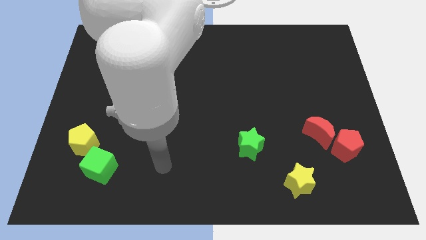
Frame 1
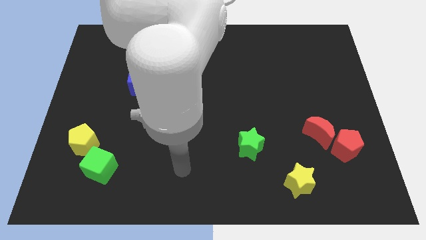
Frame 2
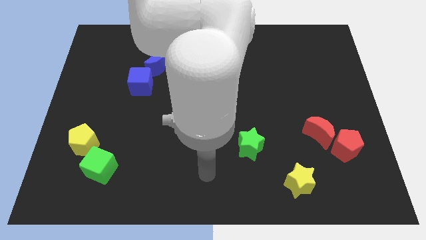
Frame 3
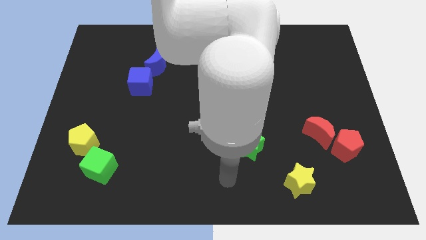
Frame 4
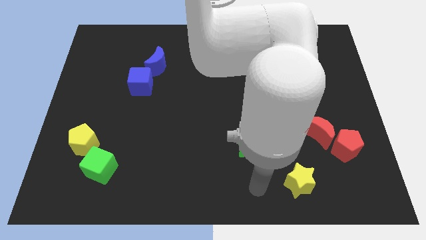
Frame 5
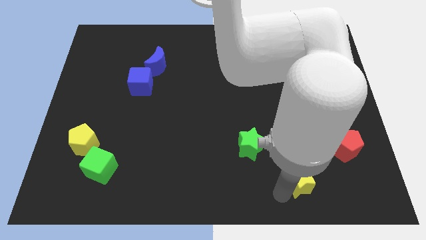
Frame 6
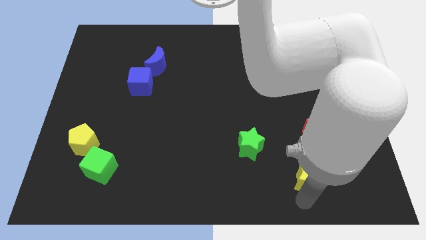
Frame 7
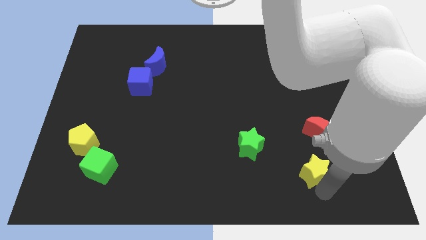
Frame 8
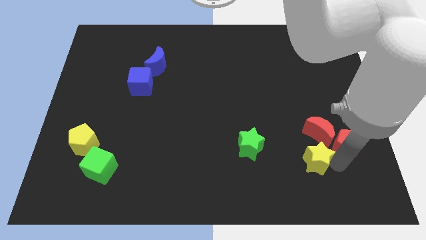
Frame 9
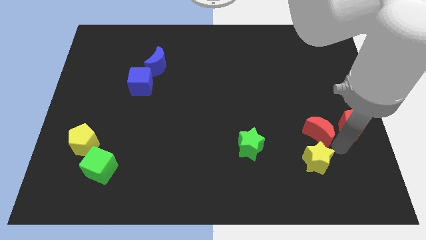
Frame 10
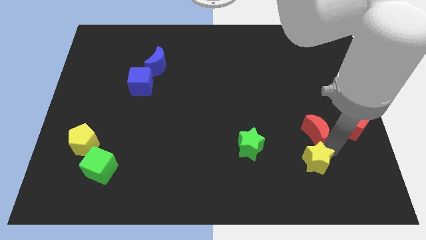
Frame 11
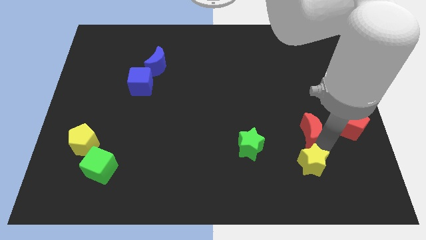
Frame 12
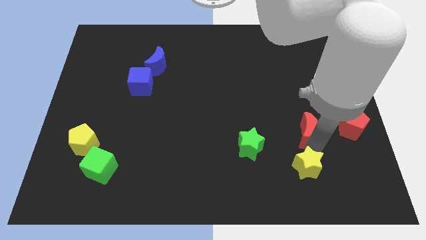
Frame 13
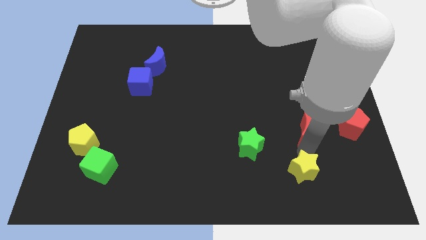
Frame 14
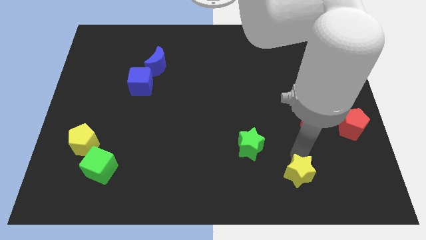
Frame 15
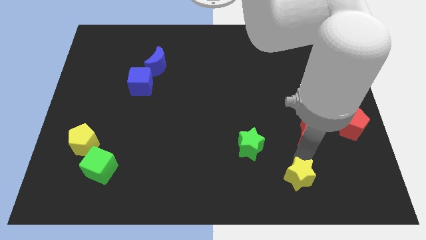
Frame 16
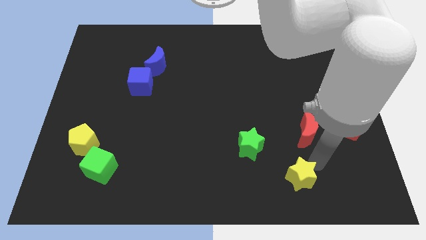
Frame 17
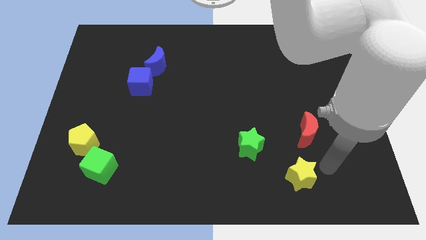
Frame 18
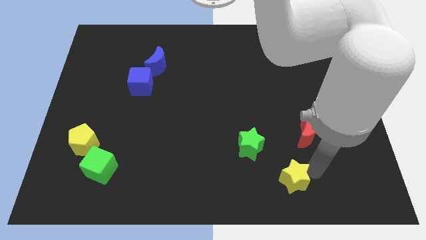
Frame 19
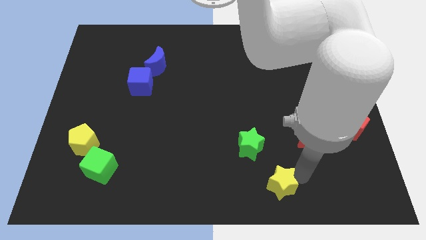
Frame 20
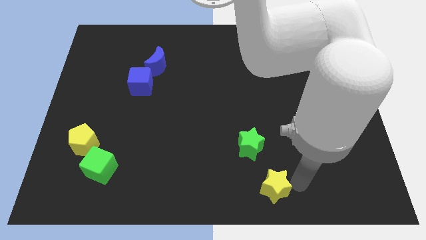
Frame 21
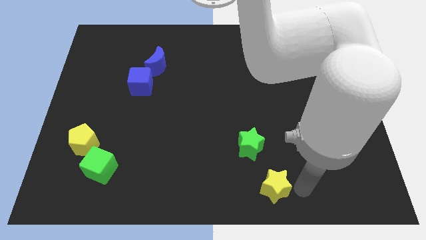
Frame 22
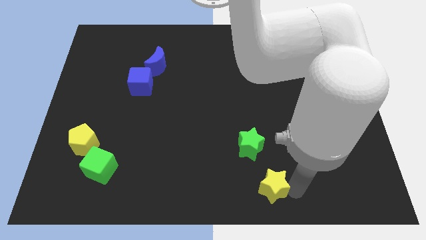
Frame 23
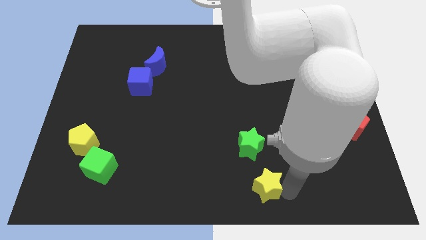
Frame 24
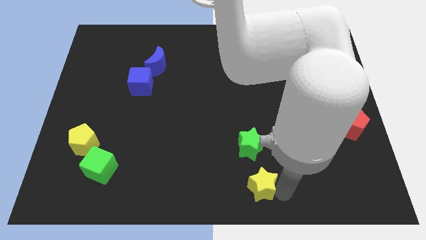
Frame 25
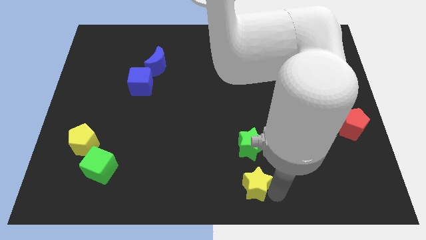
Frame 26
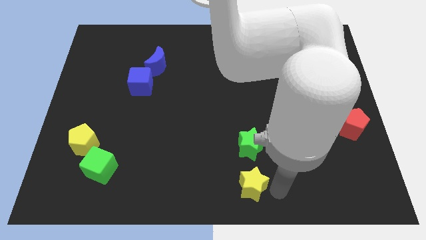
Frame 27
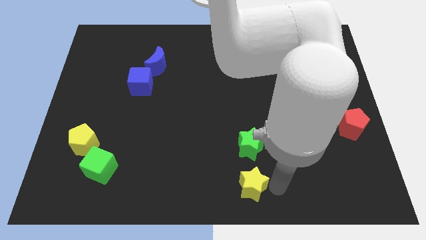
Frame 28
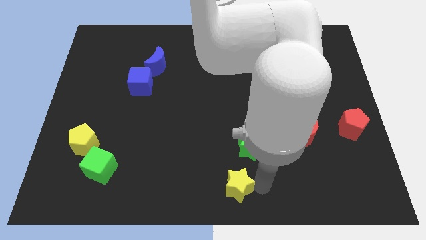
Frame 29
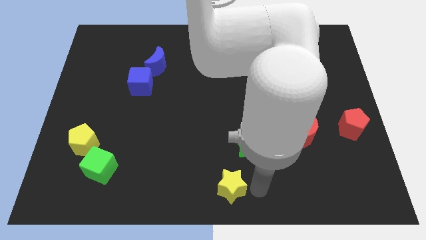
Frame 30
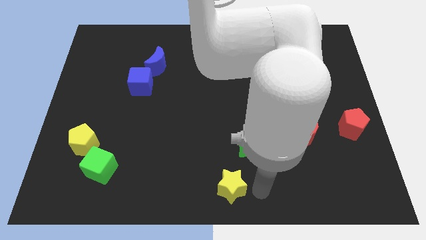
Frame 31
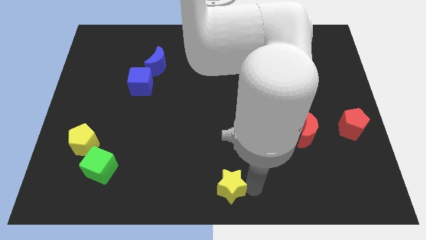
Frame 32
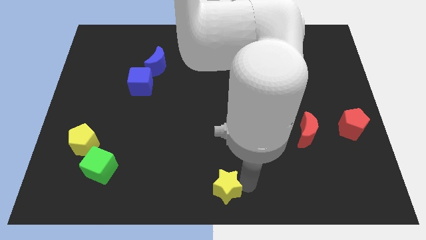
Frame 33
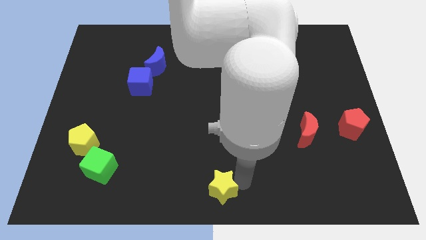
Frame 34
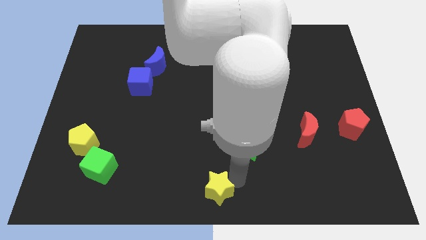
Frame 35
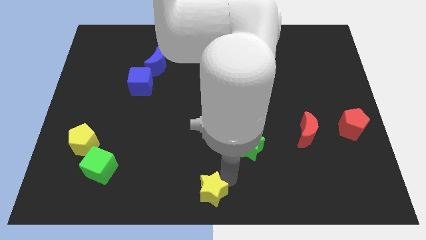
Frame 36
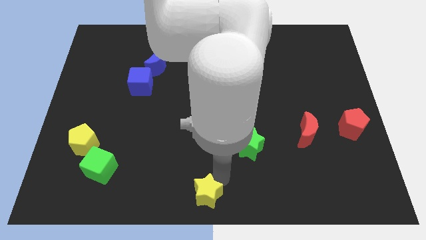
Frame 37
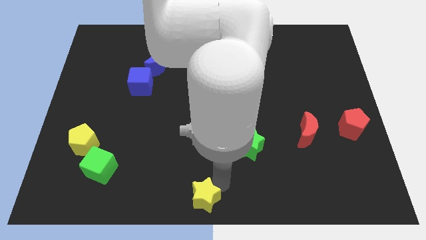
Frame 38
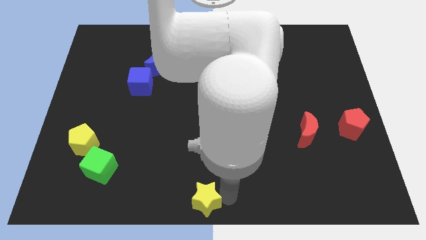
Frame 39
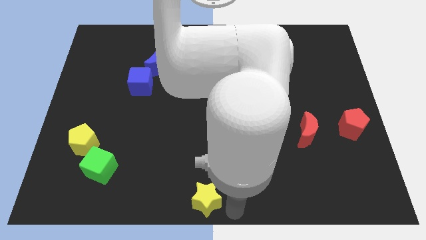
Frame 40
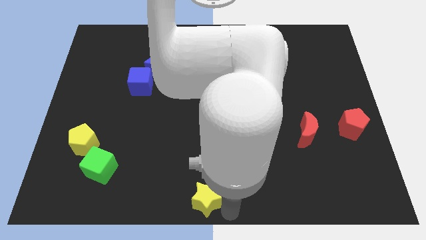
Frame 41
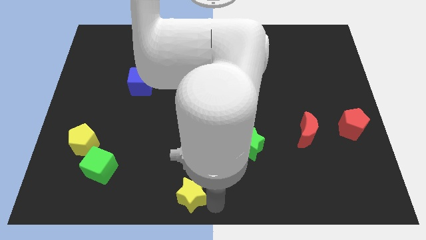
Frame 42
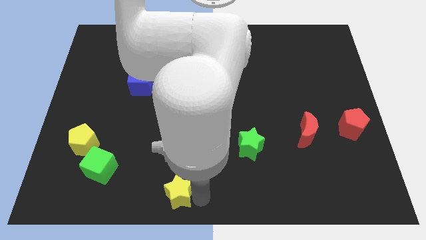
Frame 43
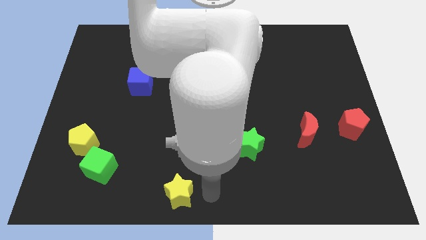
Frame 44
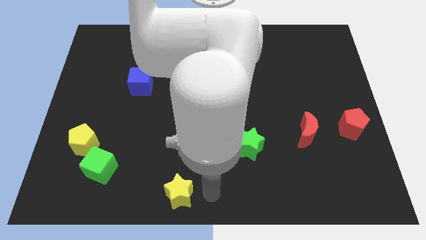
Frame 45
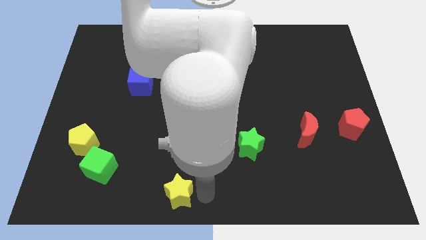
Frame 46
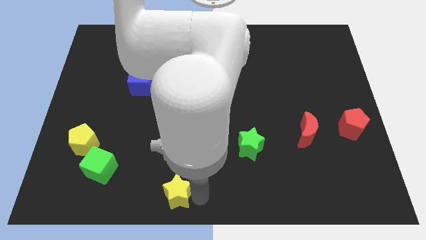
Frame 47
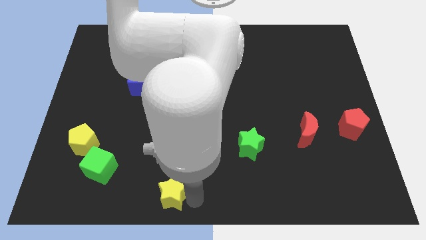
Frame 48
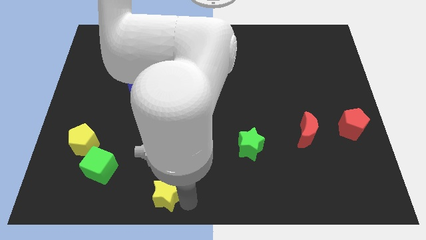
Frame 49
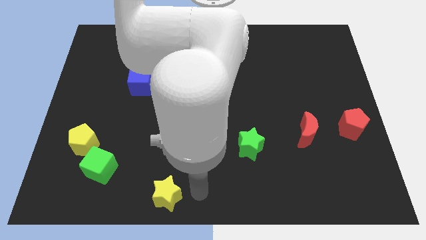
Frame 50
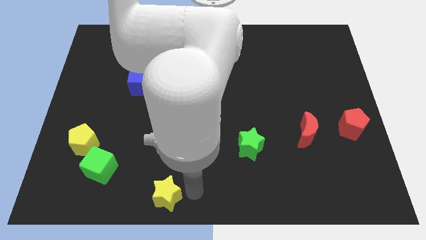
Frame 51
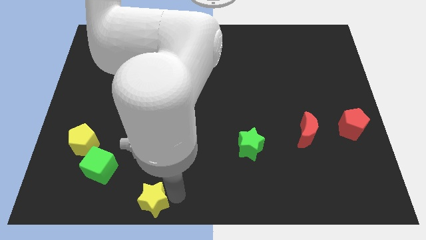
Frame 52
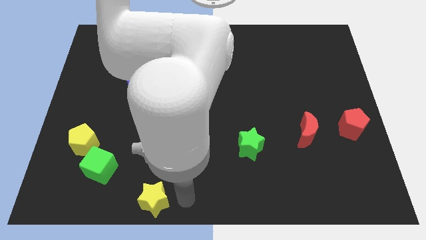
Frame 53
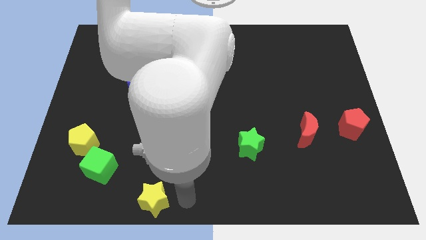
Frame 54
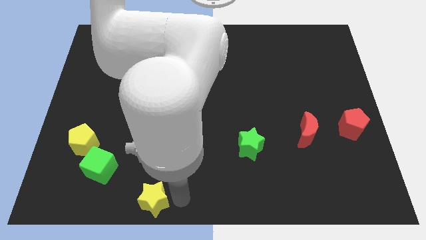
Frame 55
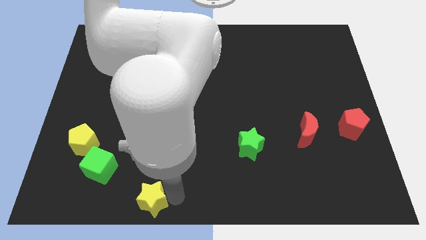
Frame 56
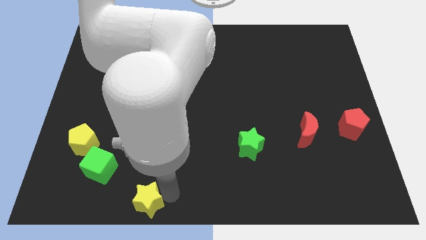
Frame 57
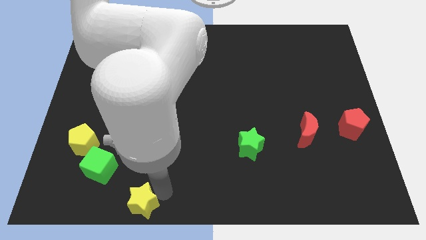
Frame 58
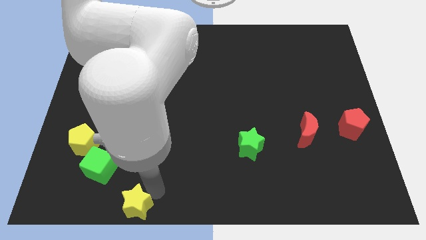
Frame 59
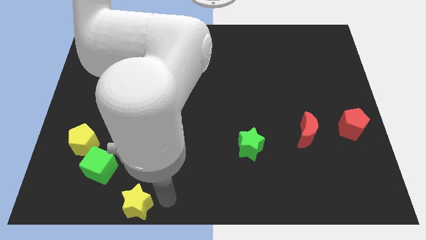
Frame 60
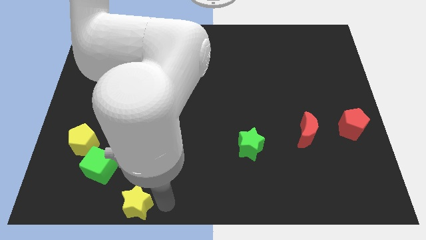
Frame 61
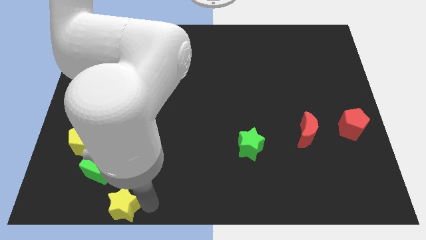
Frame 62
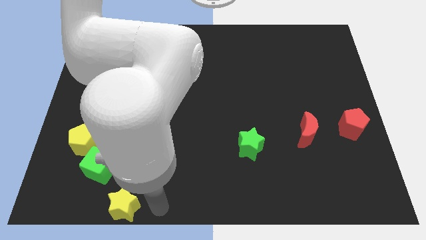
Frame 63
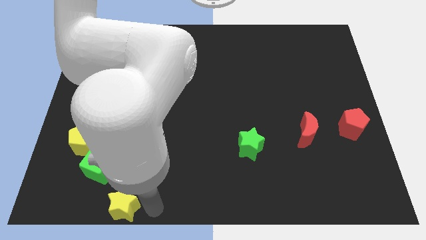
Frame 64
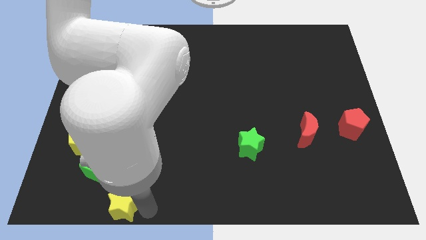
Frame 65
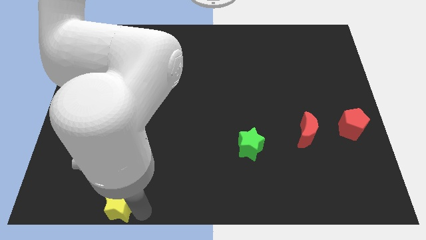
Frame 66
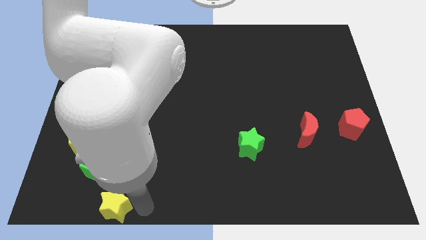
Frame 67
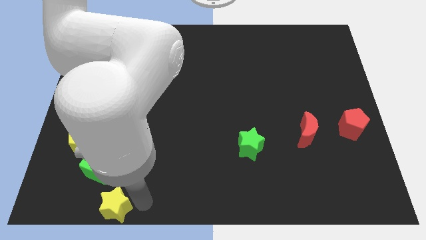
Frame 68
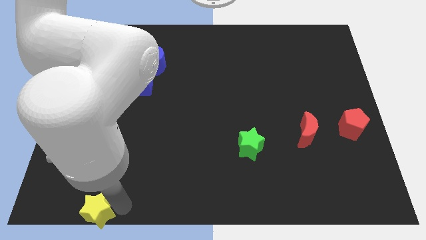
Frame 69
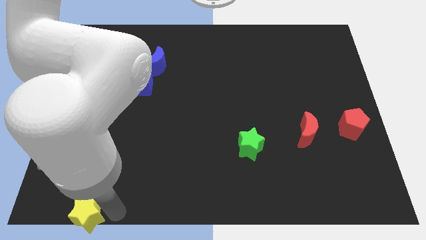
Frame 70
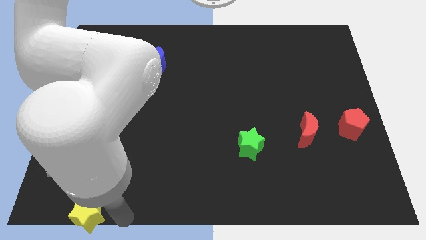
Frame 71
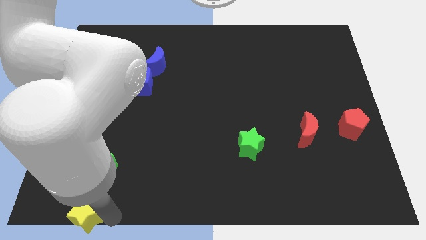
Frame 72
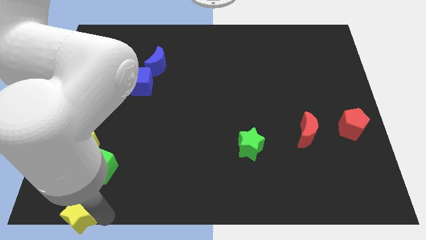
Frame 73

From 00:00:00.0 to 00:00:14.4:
slide the yellow star to the lower left corner
